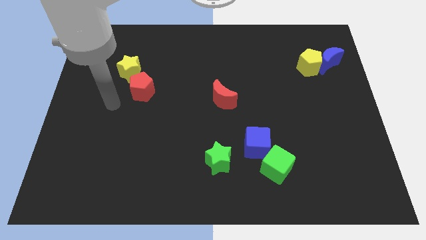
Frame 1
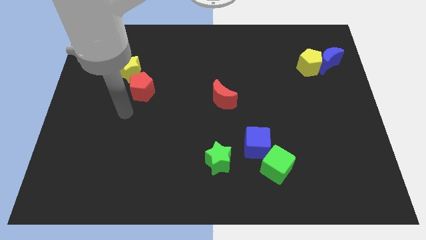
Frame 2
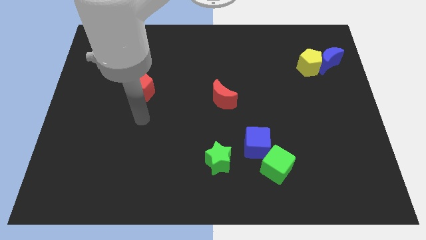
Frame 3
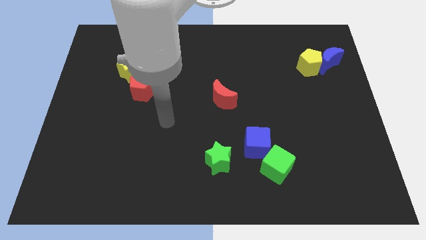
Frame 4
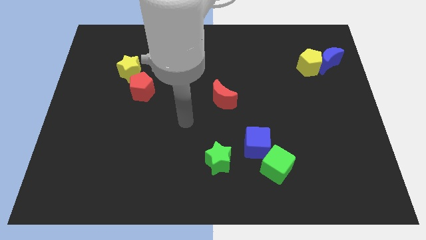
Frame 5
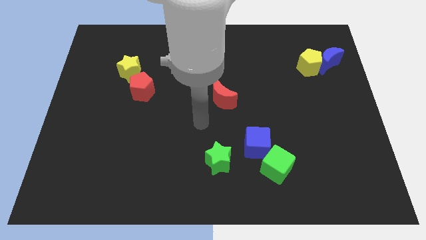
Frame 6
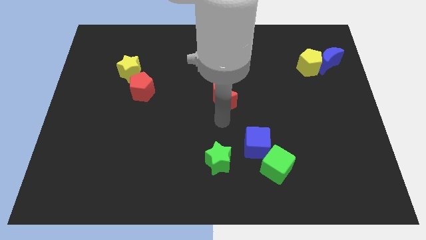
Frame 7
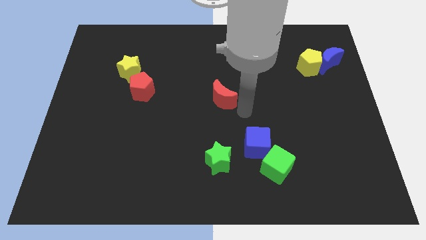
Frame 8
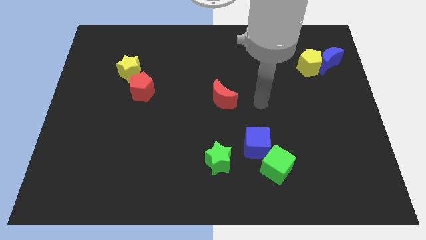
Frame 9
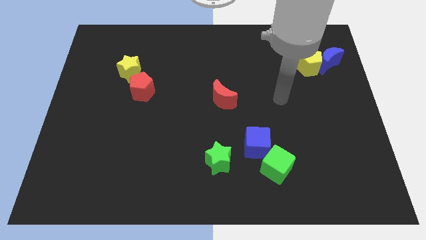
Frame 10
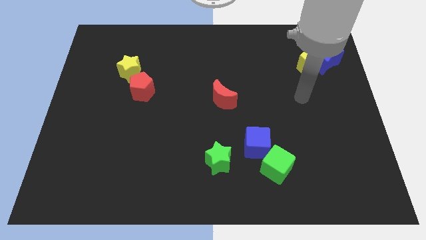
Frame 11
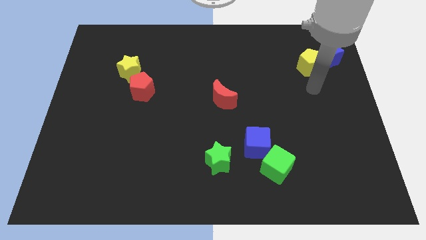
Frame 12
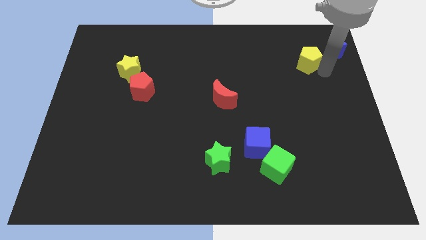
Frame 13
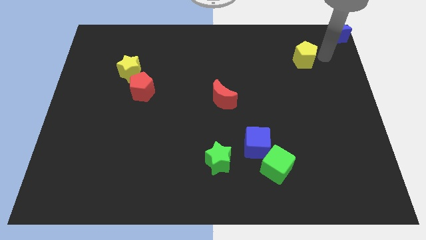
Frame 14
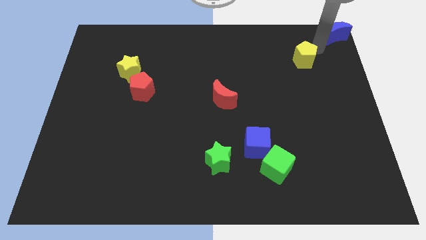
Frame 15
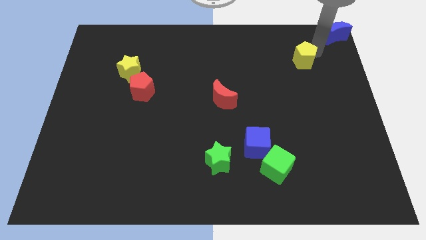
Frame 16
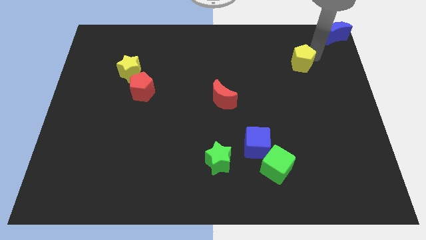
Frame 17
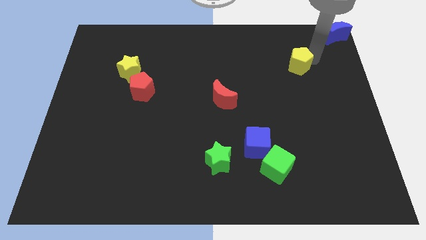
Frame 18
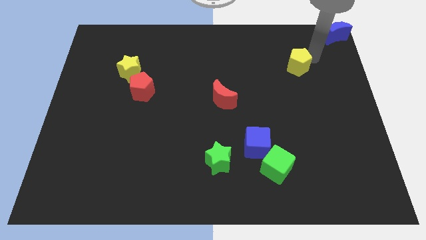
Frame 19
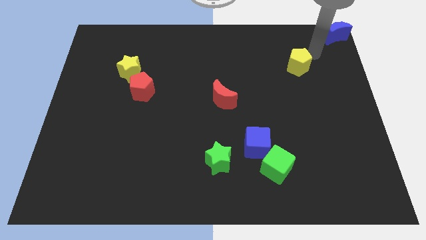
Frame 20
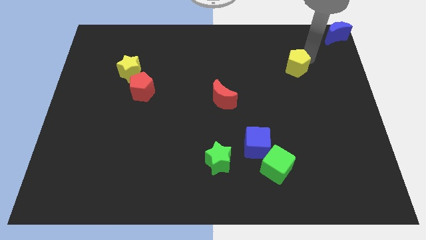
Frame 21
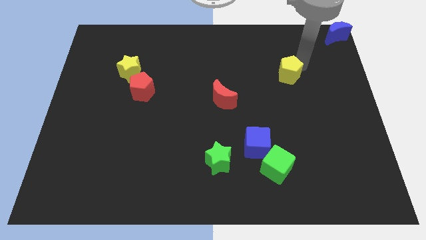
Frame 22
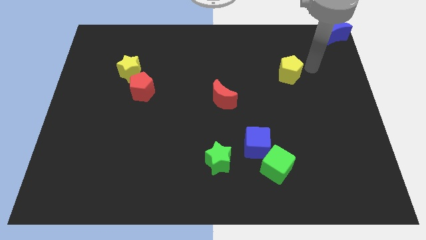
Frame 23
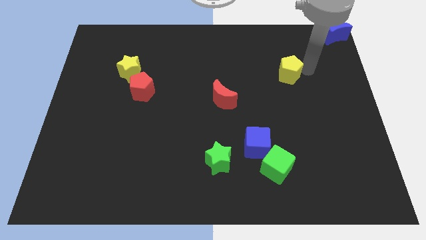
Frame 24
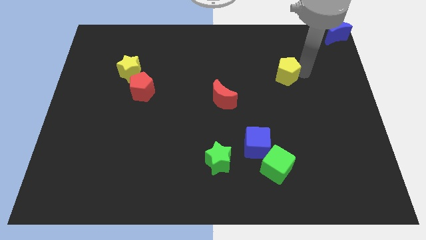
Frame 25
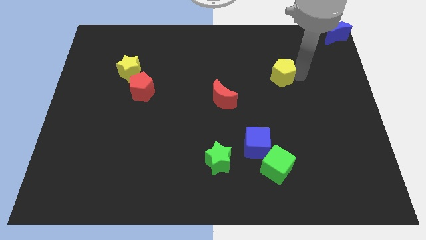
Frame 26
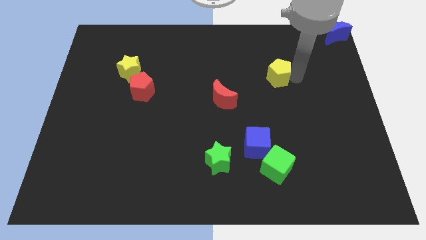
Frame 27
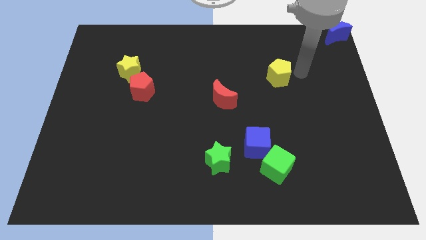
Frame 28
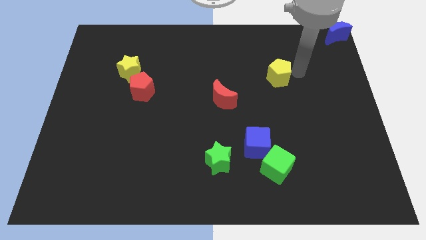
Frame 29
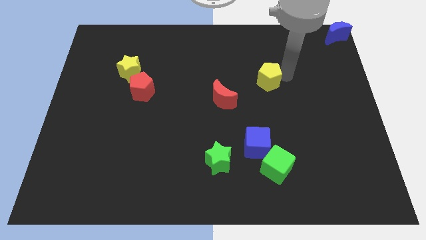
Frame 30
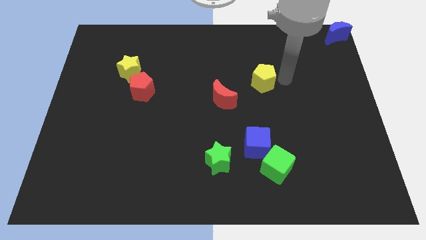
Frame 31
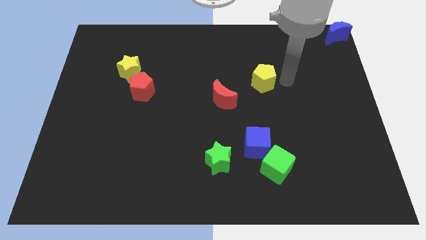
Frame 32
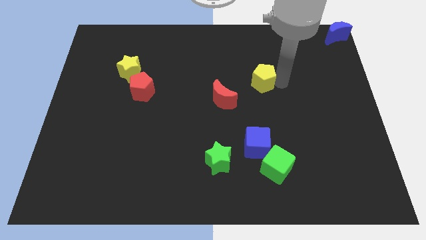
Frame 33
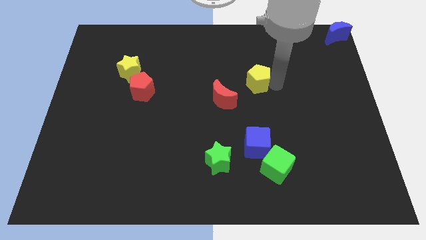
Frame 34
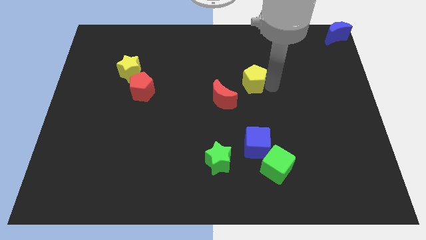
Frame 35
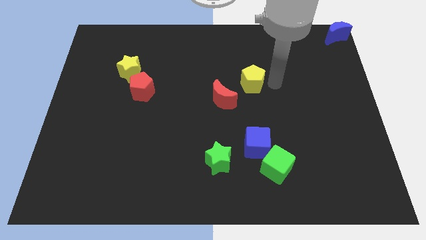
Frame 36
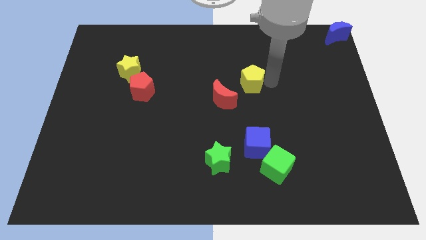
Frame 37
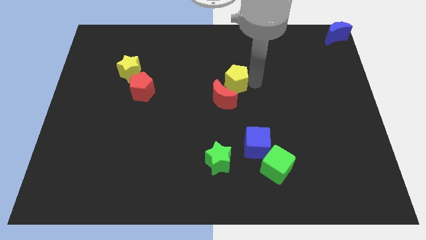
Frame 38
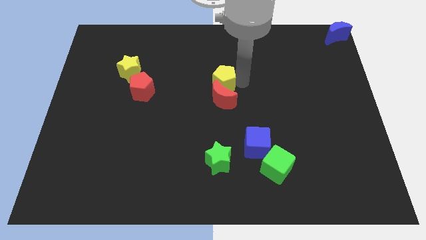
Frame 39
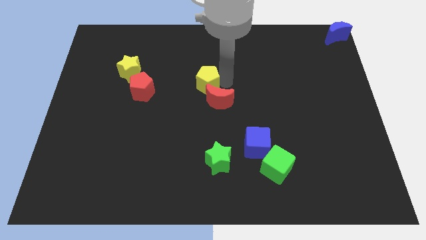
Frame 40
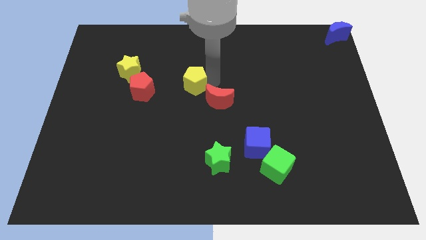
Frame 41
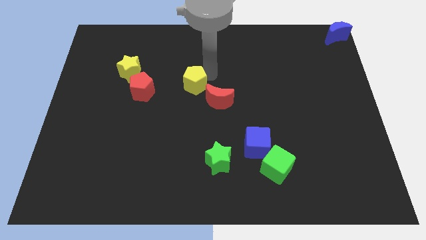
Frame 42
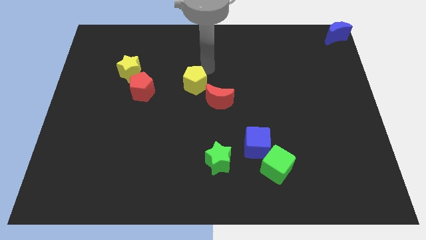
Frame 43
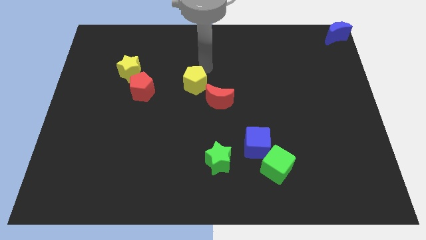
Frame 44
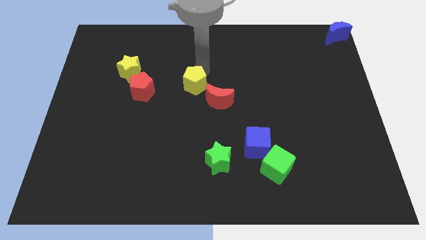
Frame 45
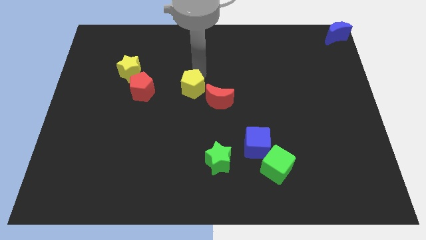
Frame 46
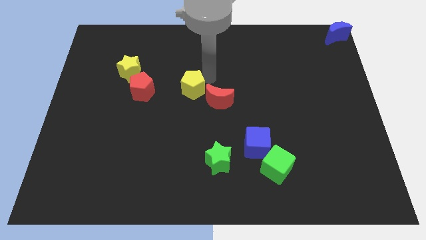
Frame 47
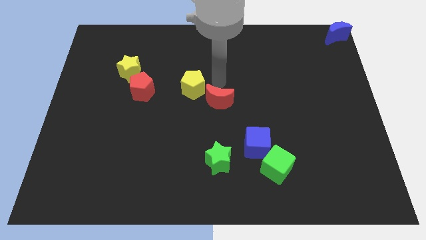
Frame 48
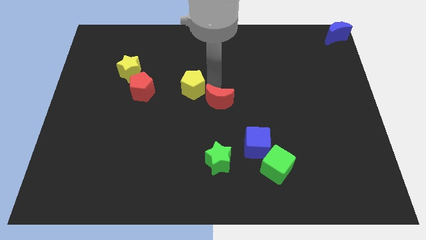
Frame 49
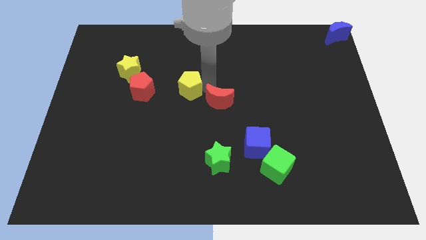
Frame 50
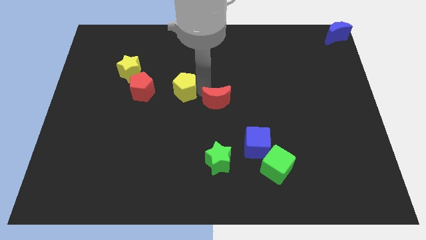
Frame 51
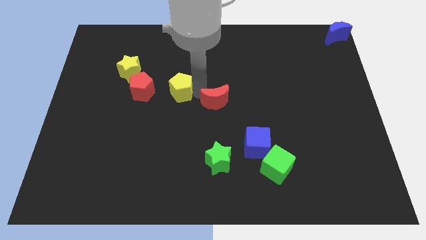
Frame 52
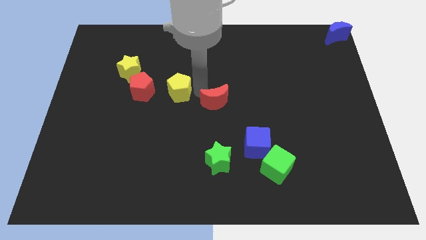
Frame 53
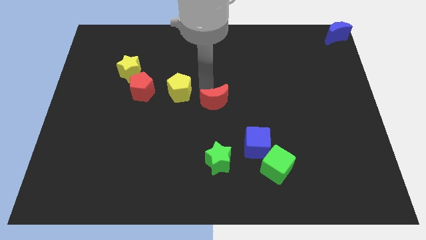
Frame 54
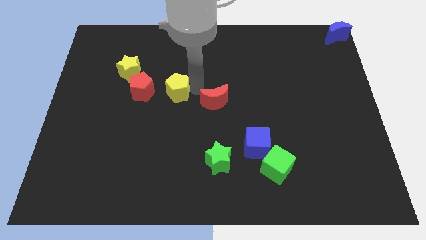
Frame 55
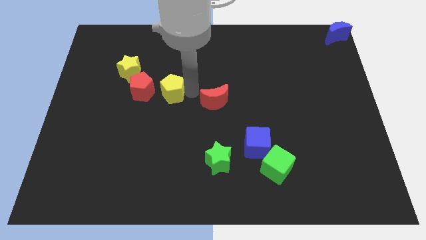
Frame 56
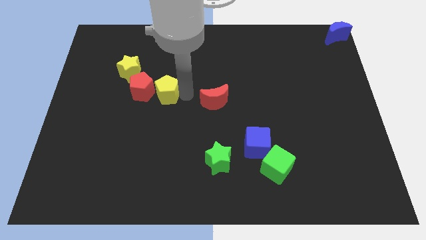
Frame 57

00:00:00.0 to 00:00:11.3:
push the yellow pentagon to the bottom right of the yellow star
